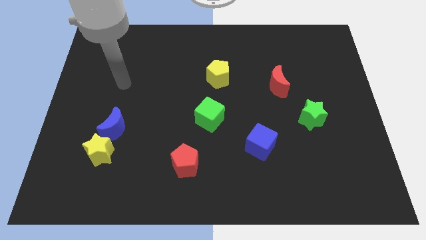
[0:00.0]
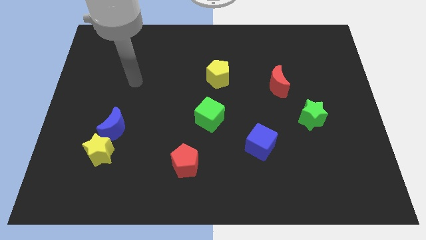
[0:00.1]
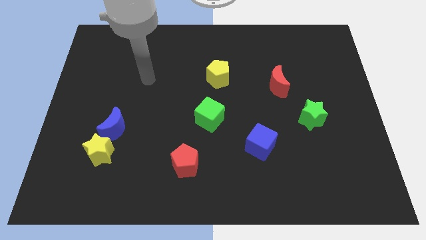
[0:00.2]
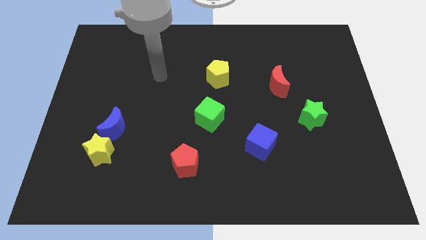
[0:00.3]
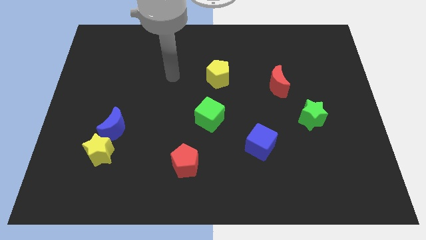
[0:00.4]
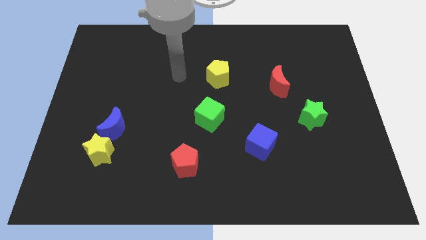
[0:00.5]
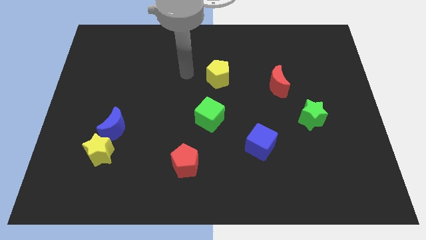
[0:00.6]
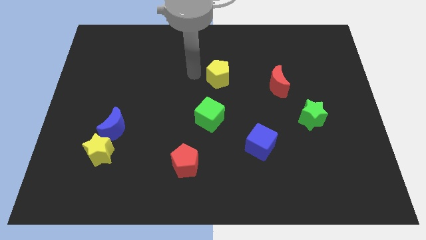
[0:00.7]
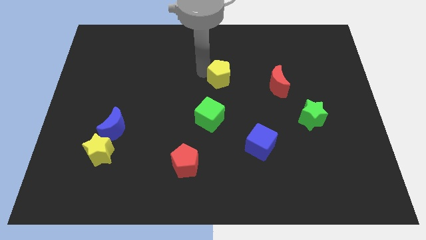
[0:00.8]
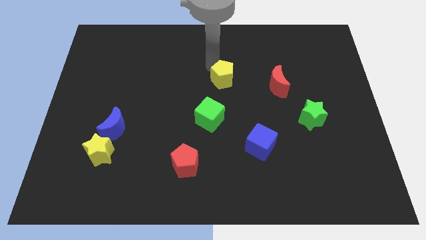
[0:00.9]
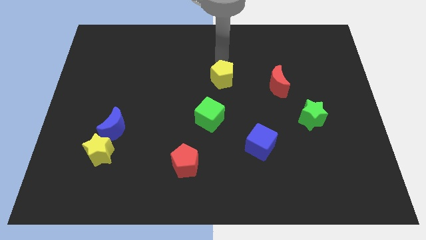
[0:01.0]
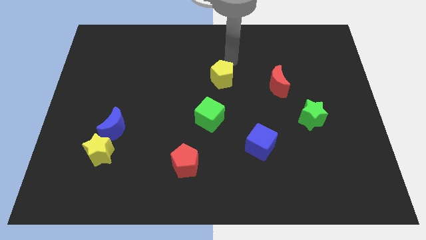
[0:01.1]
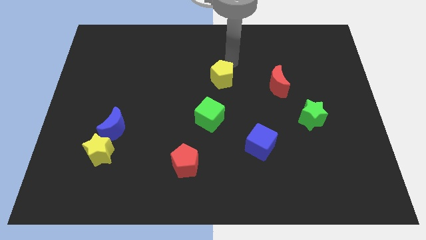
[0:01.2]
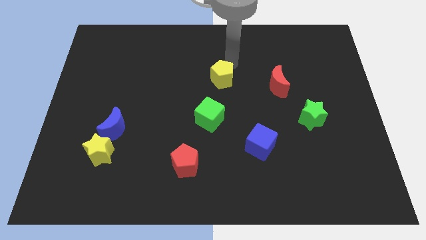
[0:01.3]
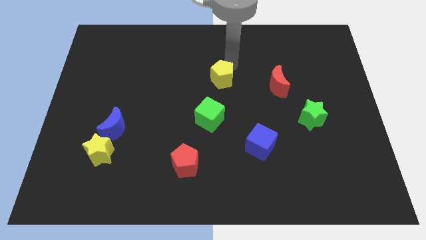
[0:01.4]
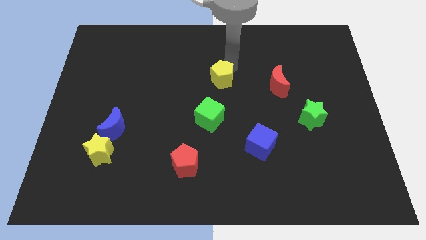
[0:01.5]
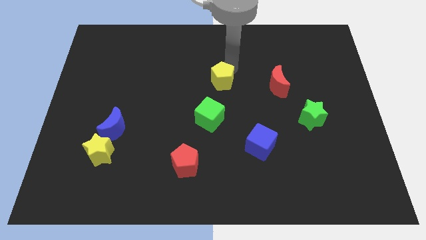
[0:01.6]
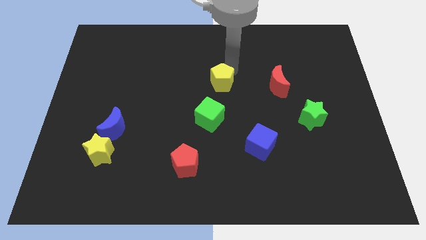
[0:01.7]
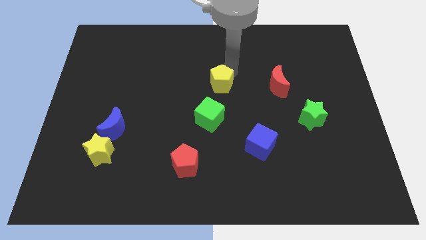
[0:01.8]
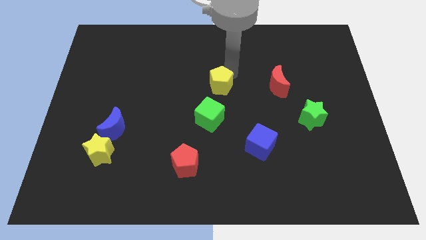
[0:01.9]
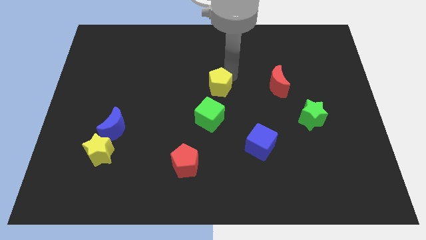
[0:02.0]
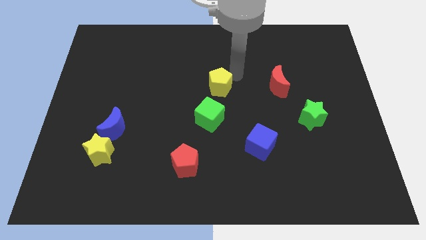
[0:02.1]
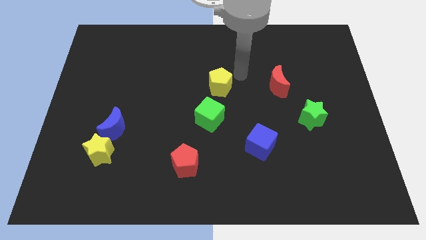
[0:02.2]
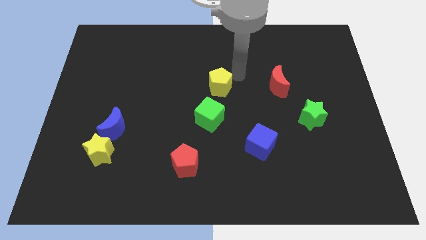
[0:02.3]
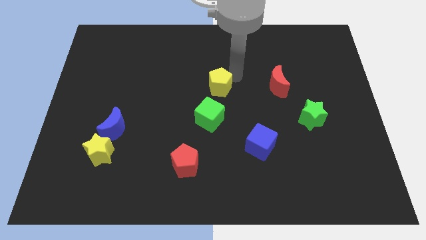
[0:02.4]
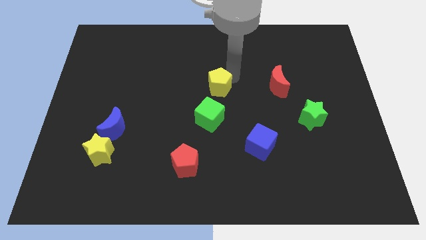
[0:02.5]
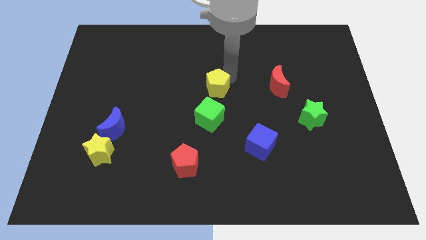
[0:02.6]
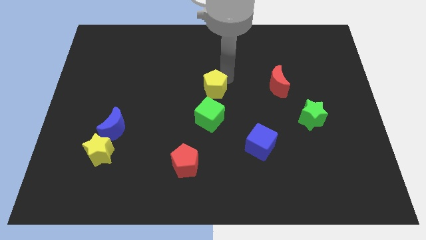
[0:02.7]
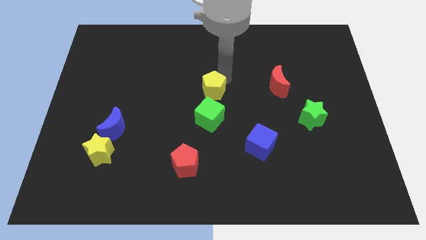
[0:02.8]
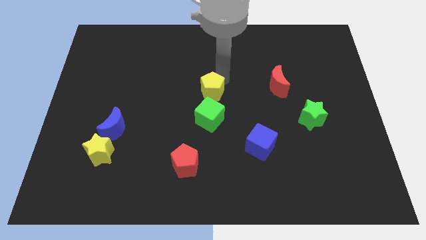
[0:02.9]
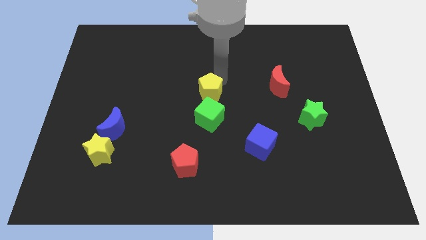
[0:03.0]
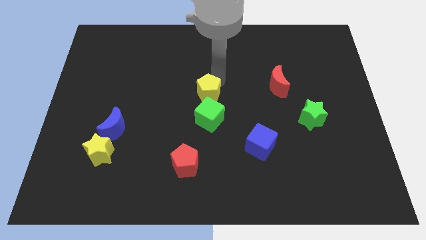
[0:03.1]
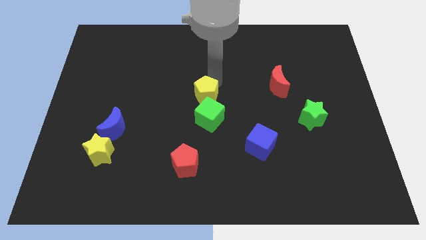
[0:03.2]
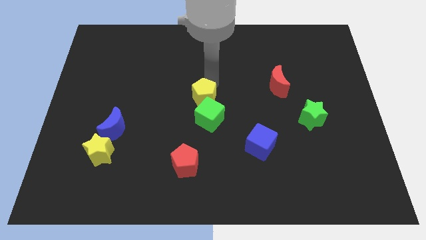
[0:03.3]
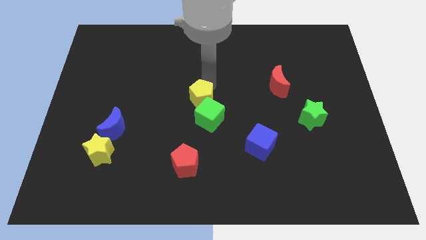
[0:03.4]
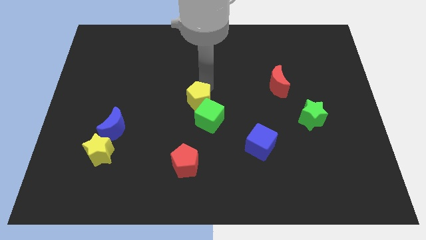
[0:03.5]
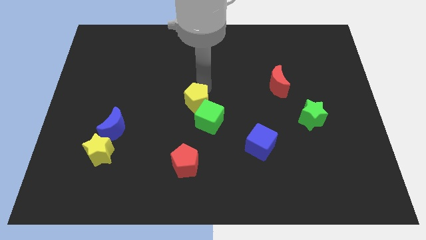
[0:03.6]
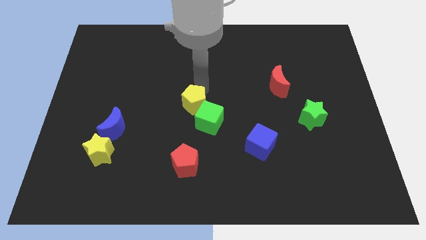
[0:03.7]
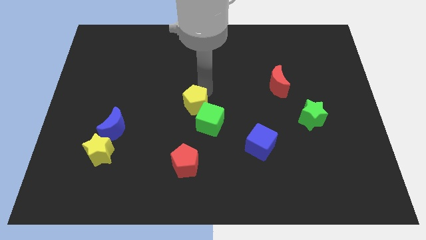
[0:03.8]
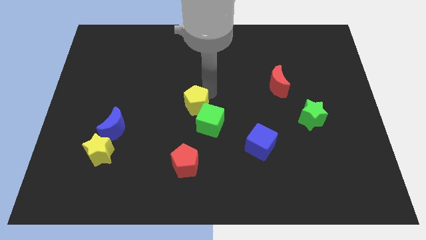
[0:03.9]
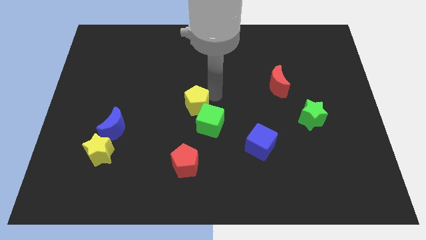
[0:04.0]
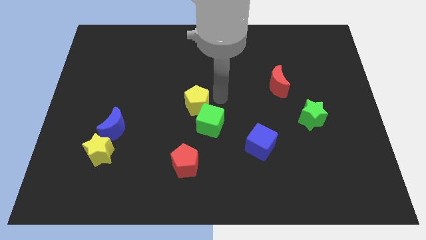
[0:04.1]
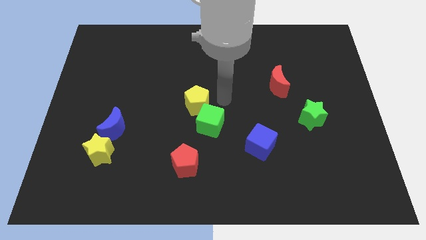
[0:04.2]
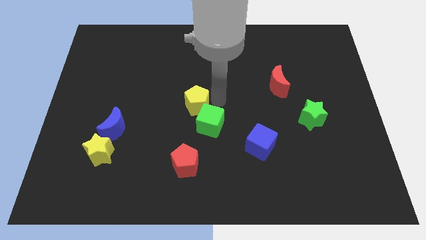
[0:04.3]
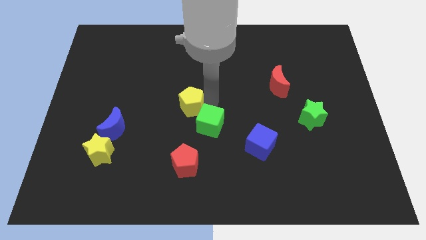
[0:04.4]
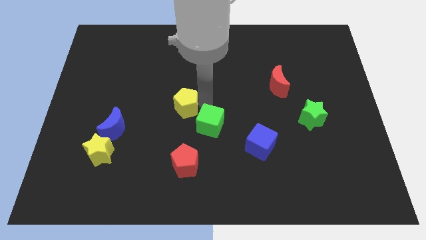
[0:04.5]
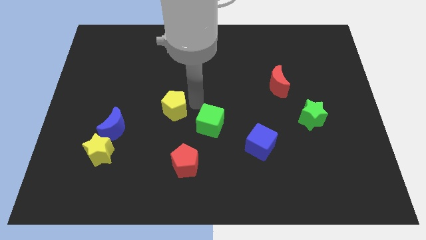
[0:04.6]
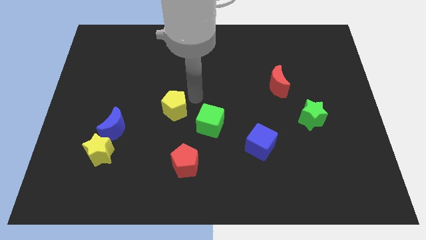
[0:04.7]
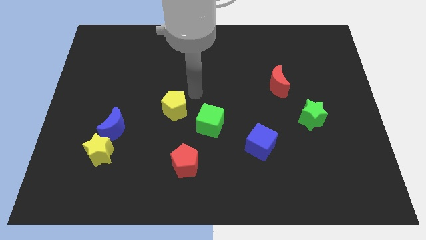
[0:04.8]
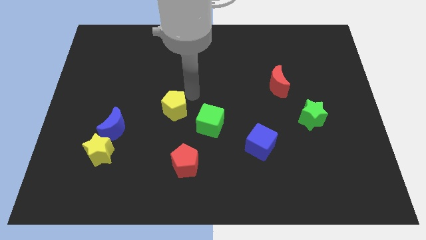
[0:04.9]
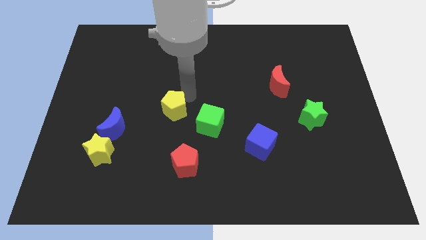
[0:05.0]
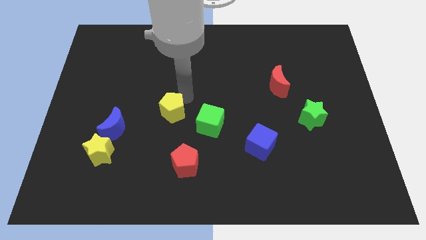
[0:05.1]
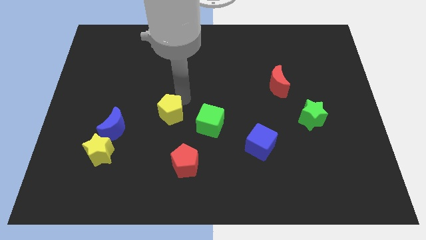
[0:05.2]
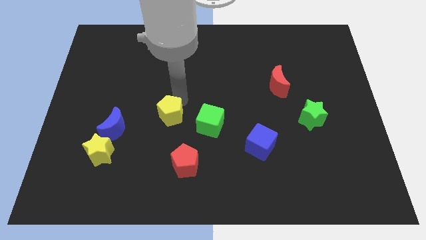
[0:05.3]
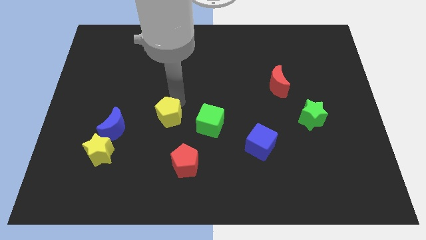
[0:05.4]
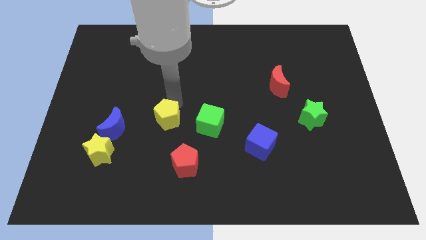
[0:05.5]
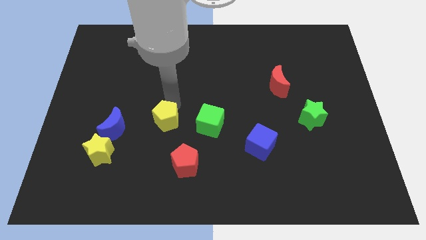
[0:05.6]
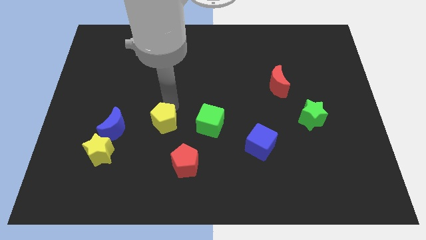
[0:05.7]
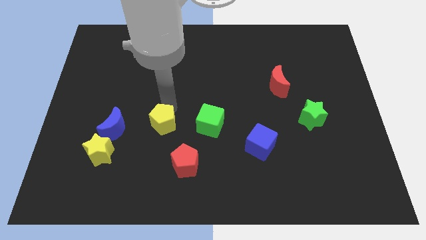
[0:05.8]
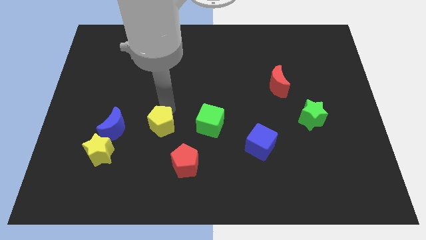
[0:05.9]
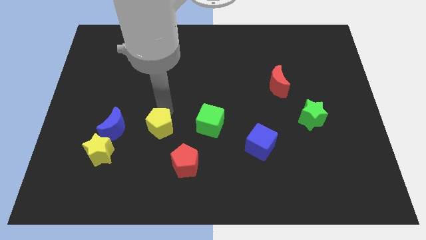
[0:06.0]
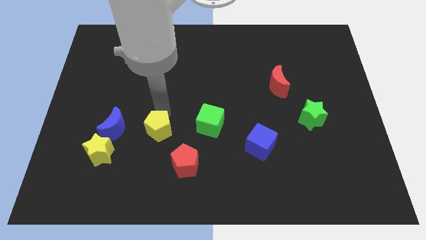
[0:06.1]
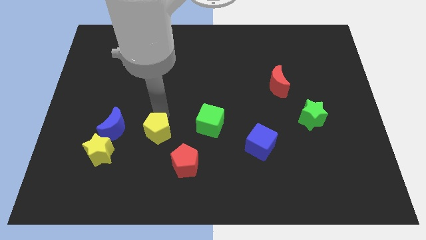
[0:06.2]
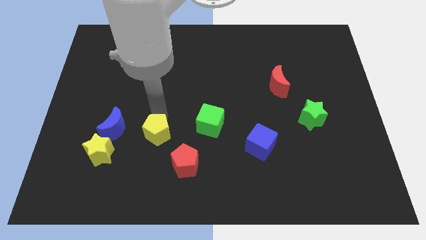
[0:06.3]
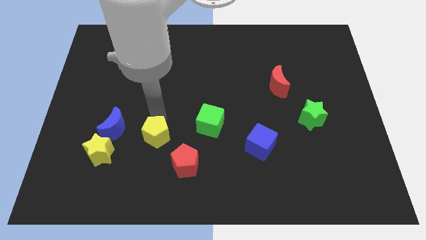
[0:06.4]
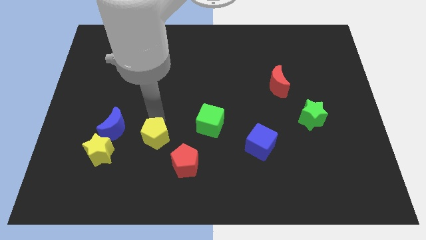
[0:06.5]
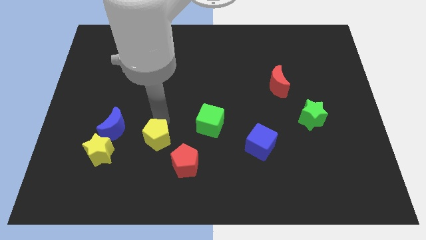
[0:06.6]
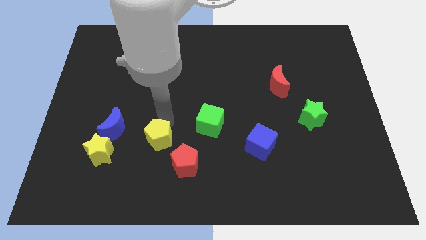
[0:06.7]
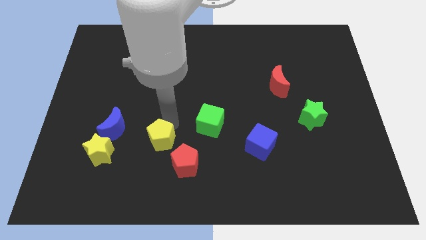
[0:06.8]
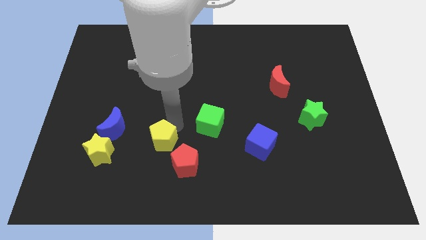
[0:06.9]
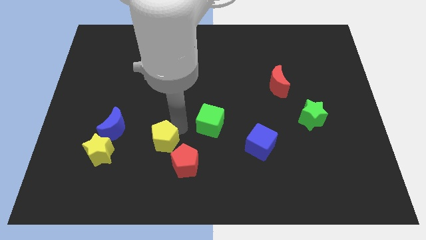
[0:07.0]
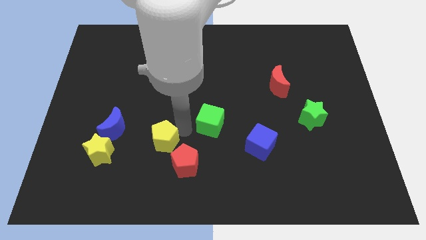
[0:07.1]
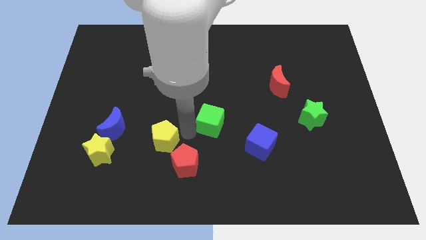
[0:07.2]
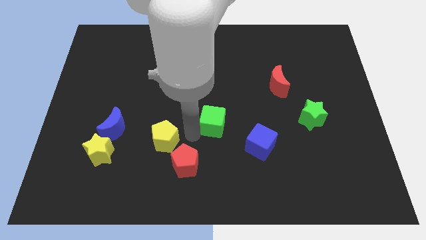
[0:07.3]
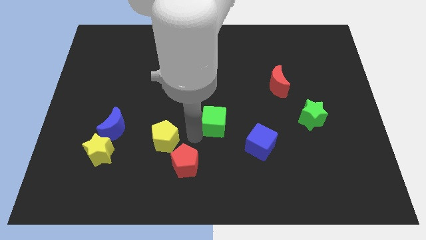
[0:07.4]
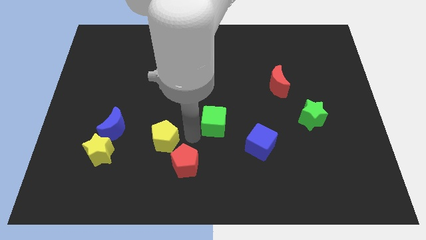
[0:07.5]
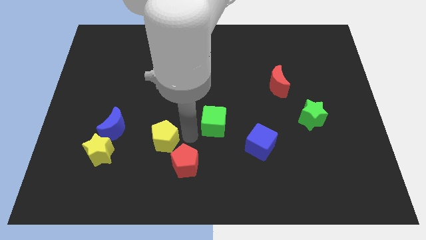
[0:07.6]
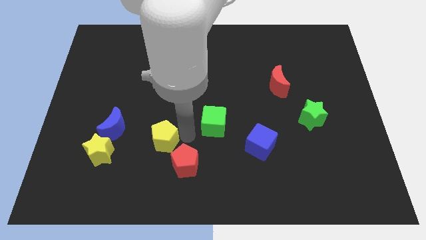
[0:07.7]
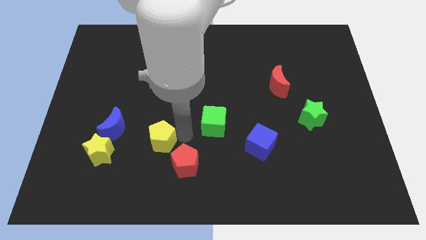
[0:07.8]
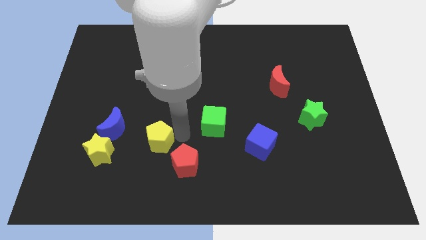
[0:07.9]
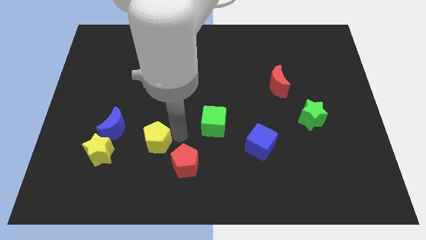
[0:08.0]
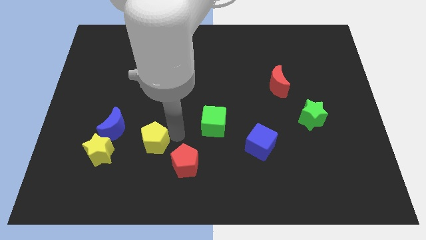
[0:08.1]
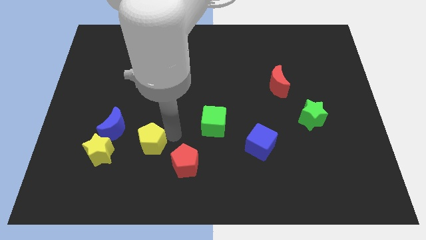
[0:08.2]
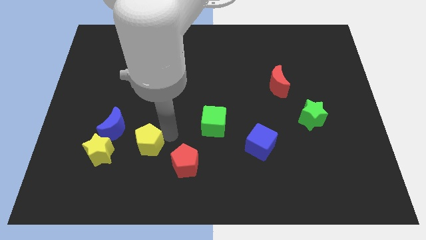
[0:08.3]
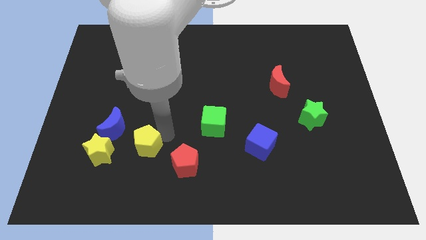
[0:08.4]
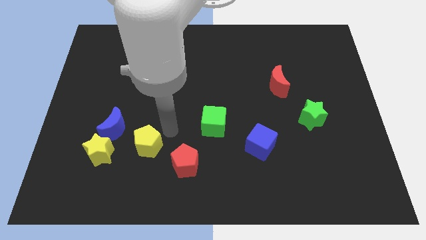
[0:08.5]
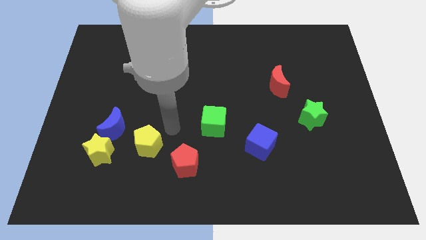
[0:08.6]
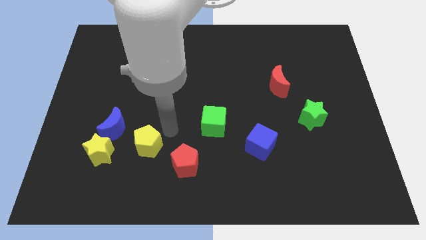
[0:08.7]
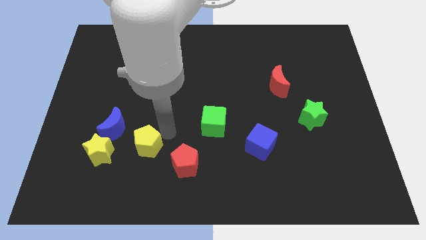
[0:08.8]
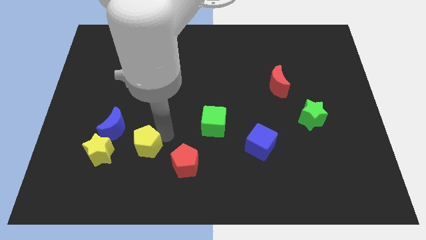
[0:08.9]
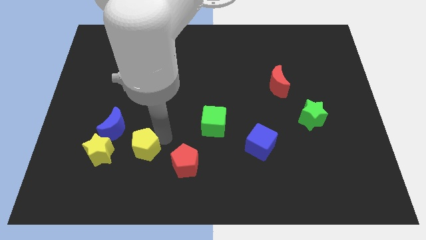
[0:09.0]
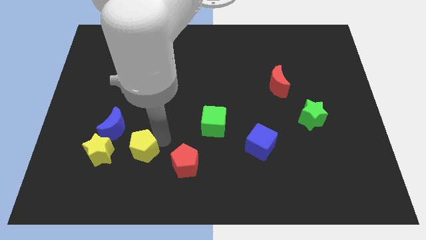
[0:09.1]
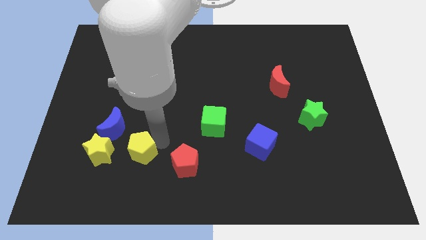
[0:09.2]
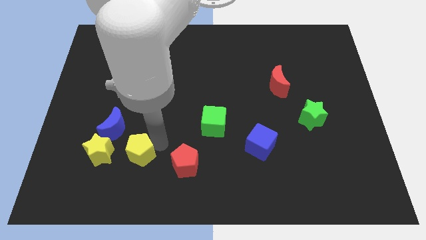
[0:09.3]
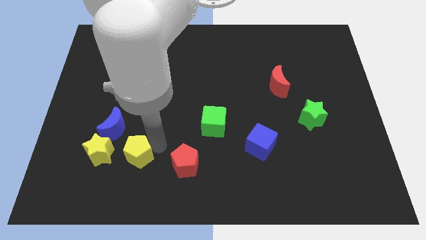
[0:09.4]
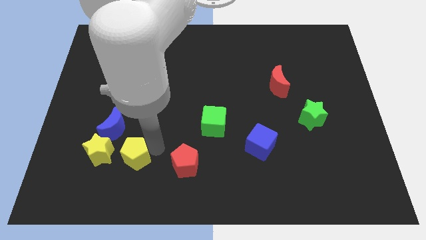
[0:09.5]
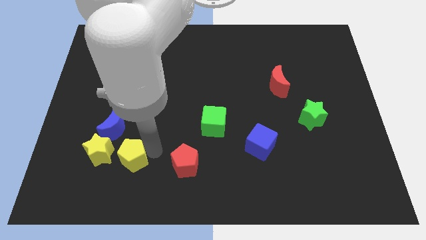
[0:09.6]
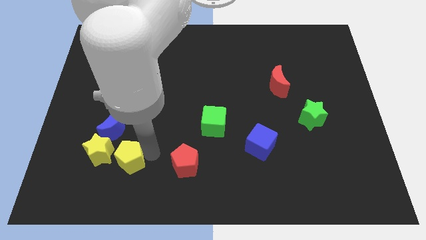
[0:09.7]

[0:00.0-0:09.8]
push the yellow pentagon to the bottom side of the blue moon
